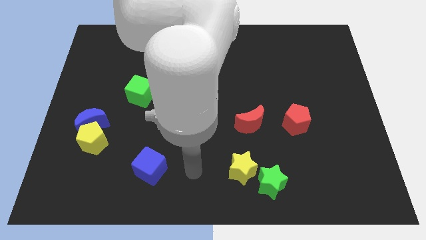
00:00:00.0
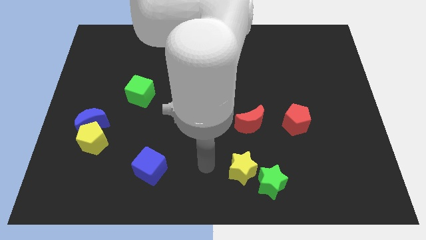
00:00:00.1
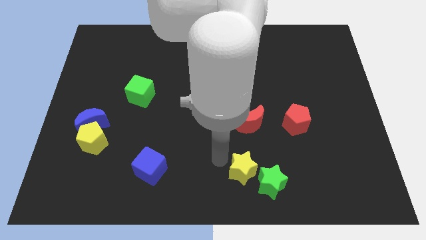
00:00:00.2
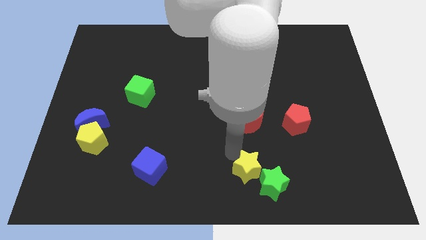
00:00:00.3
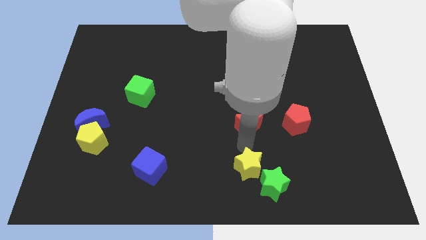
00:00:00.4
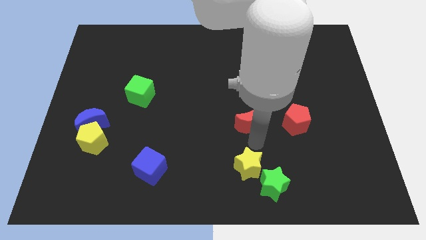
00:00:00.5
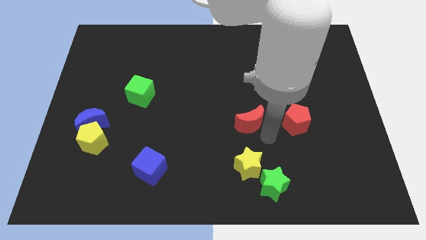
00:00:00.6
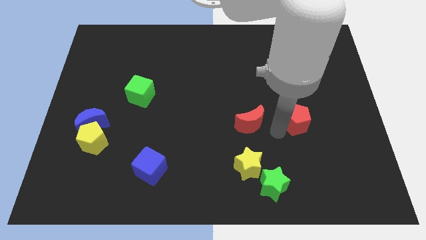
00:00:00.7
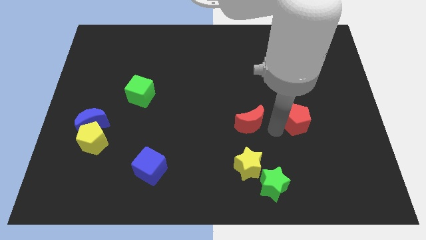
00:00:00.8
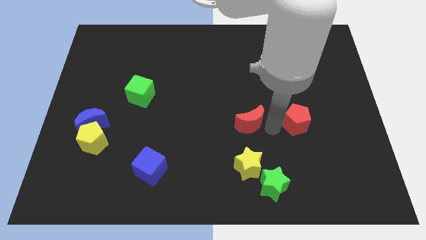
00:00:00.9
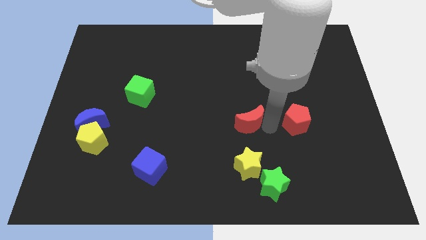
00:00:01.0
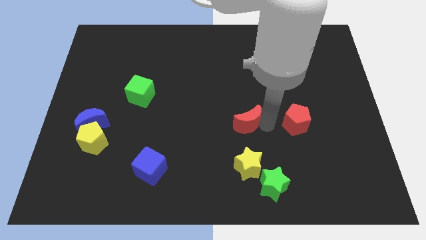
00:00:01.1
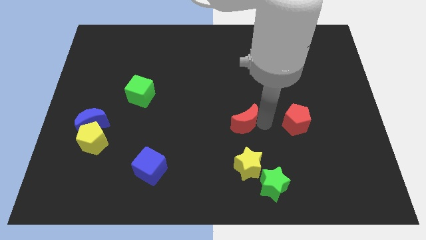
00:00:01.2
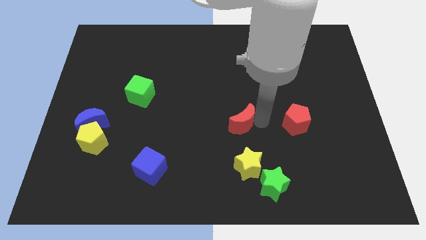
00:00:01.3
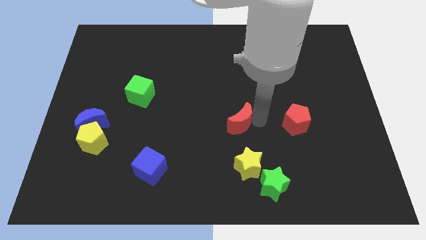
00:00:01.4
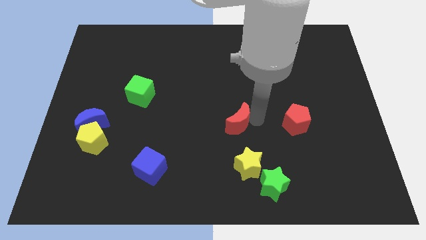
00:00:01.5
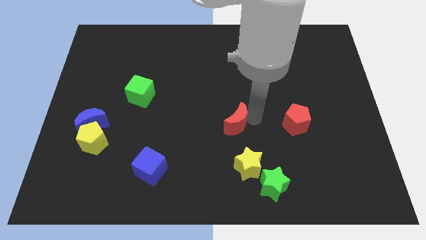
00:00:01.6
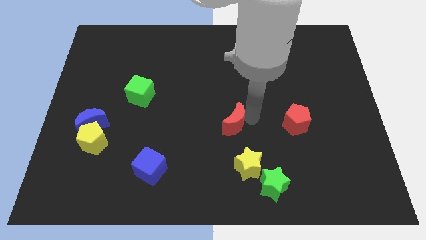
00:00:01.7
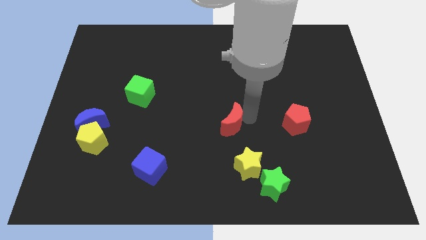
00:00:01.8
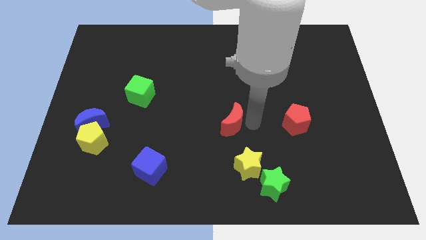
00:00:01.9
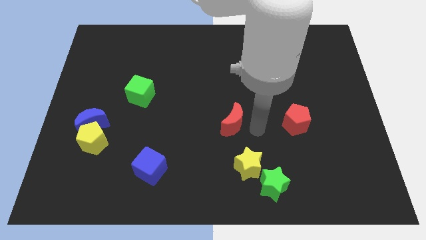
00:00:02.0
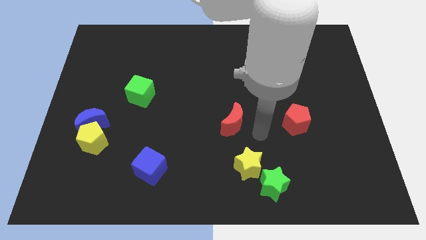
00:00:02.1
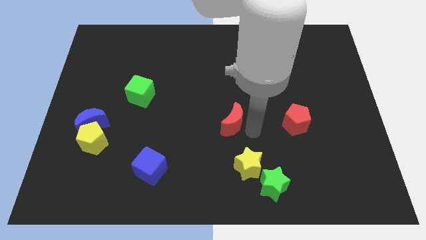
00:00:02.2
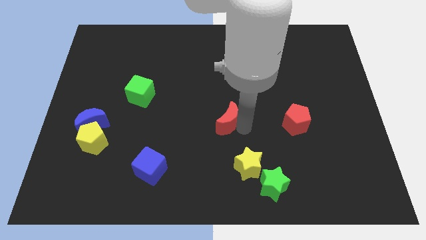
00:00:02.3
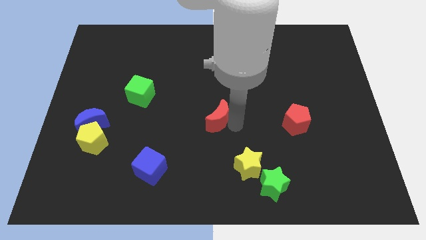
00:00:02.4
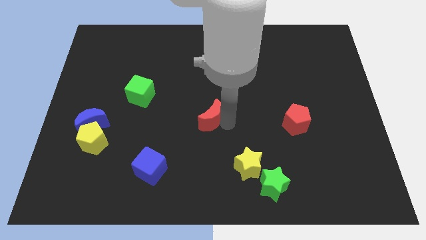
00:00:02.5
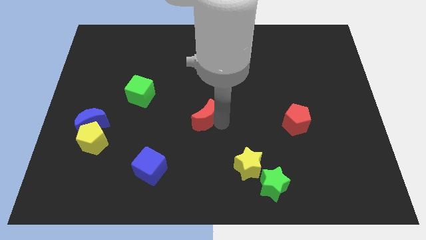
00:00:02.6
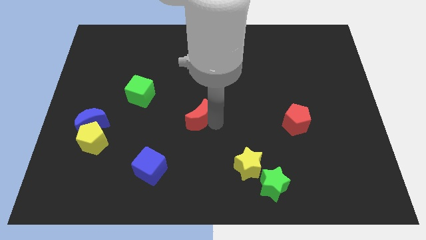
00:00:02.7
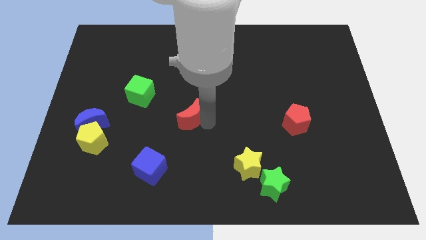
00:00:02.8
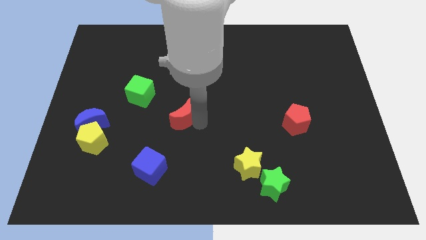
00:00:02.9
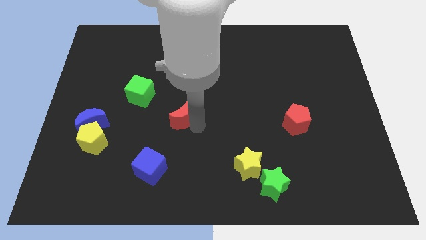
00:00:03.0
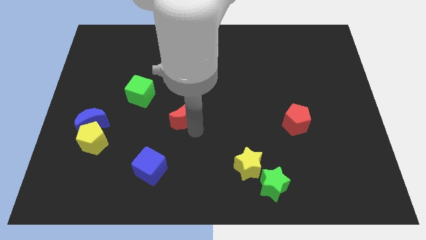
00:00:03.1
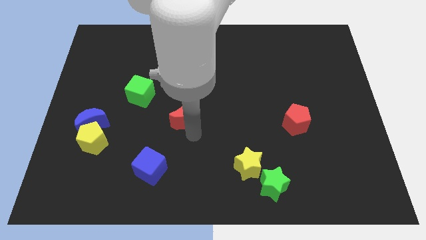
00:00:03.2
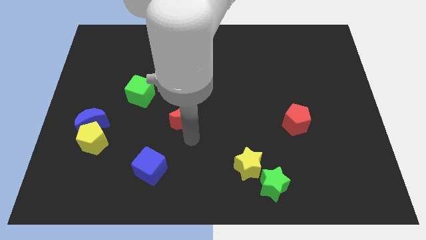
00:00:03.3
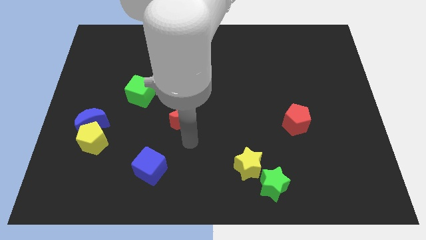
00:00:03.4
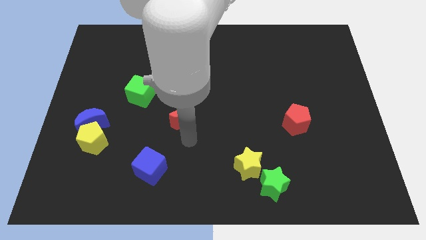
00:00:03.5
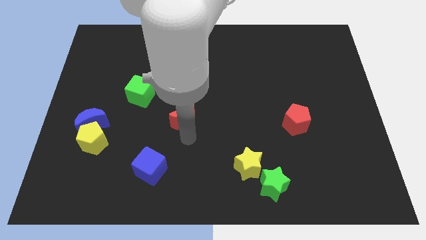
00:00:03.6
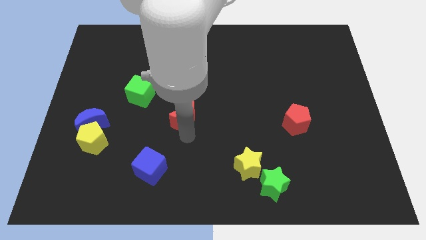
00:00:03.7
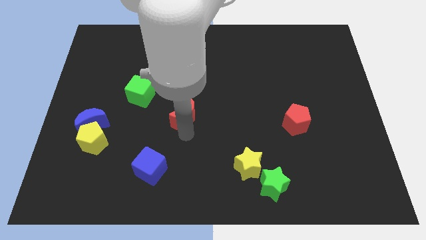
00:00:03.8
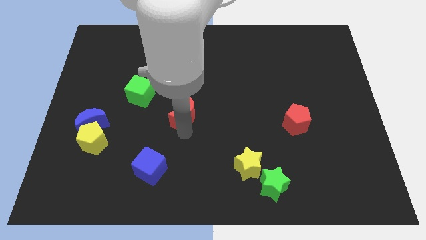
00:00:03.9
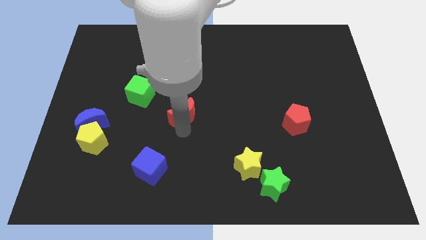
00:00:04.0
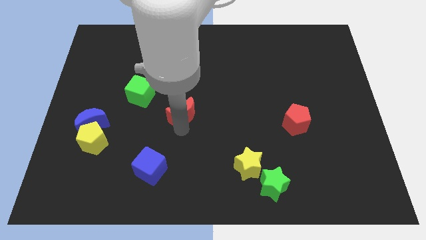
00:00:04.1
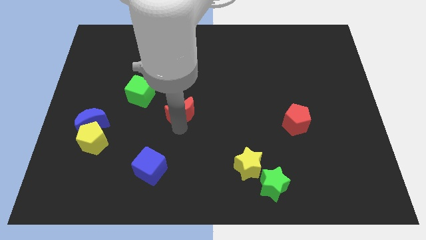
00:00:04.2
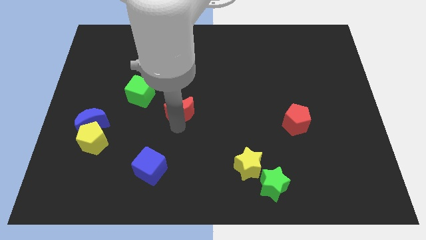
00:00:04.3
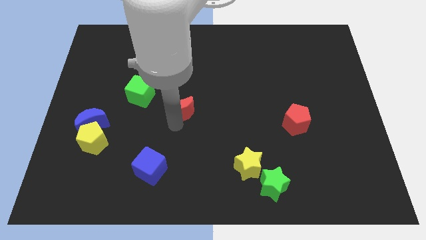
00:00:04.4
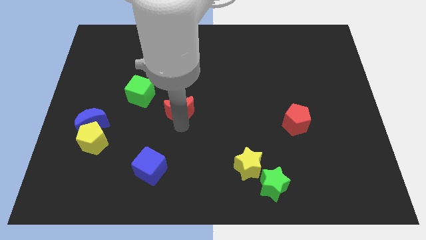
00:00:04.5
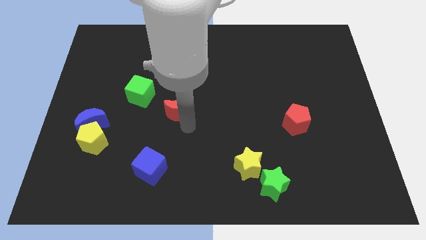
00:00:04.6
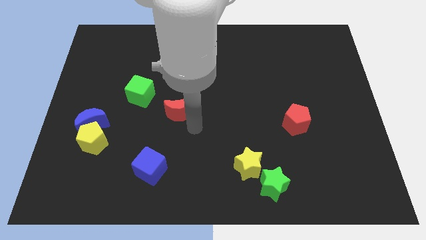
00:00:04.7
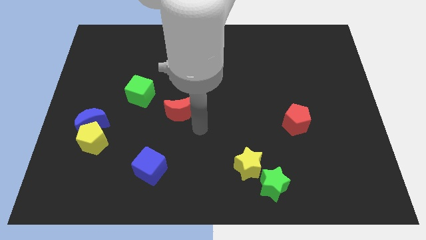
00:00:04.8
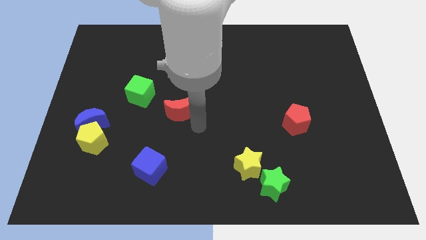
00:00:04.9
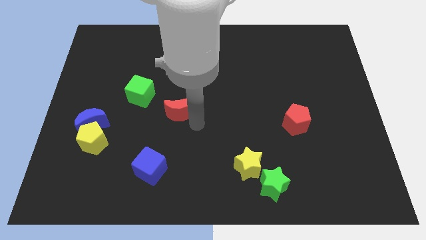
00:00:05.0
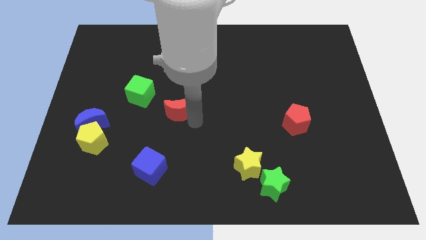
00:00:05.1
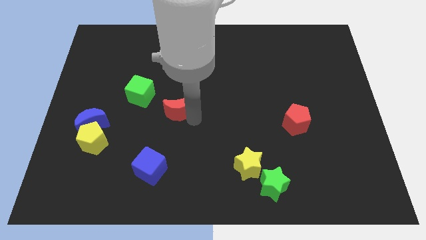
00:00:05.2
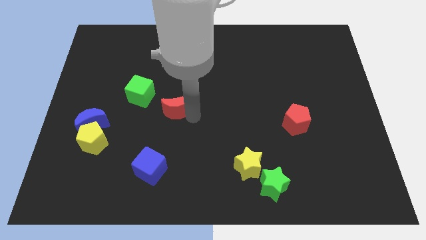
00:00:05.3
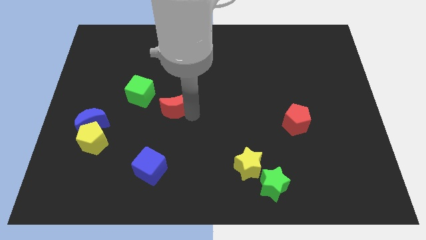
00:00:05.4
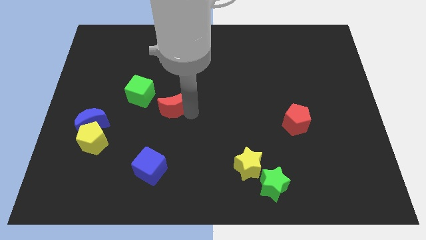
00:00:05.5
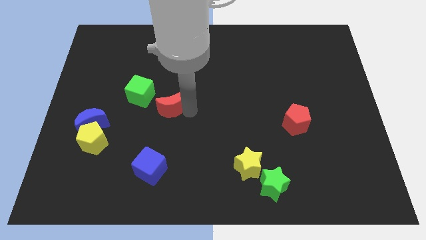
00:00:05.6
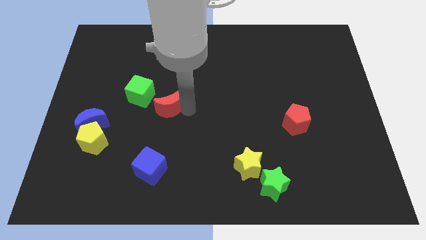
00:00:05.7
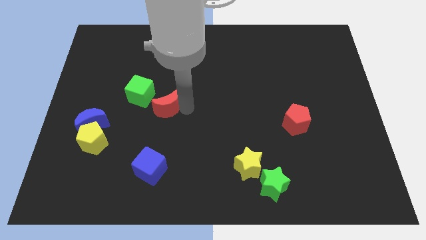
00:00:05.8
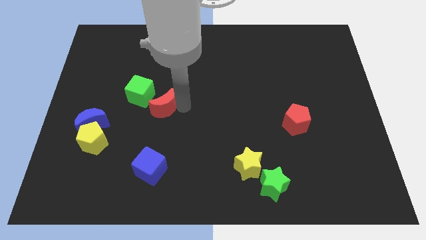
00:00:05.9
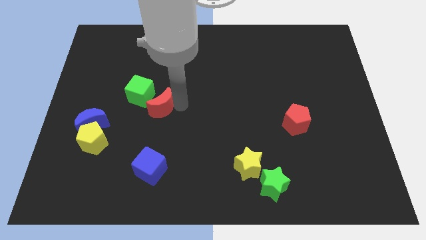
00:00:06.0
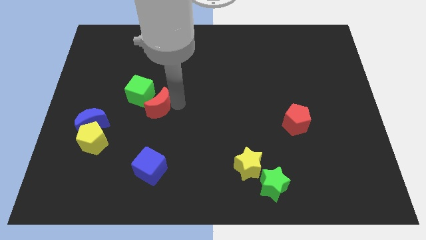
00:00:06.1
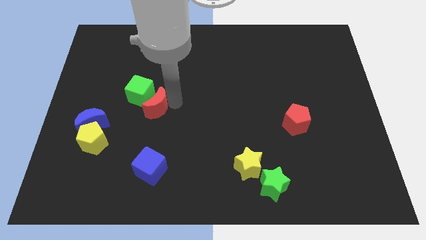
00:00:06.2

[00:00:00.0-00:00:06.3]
move the red moon towards the green cube

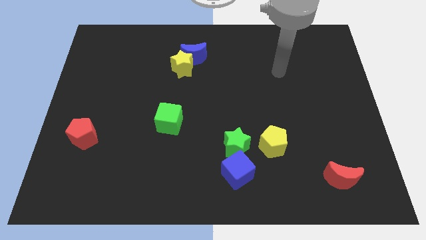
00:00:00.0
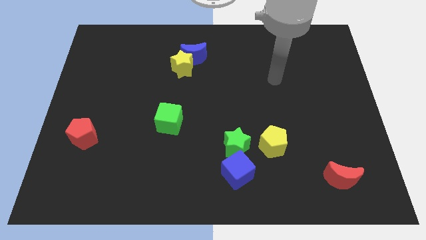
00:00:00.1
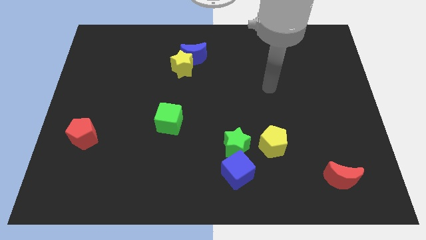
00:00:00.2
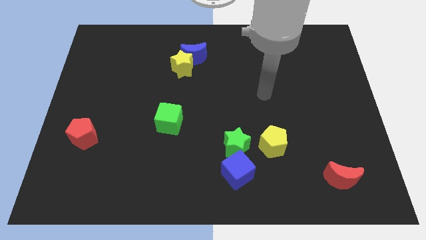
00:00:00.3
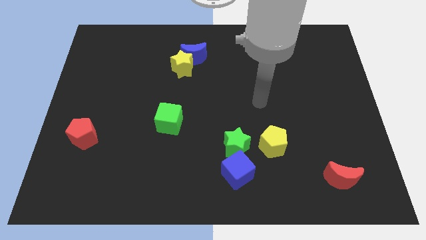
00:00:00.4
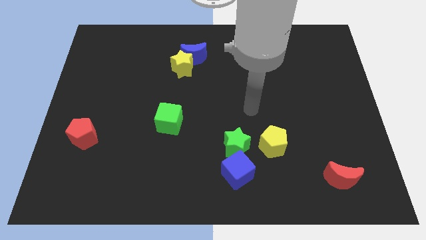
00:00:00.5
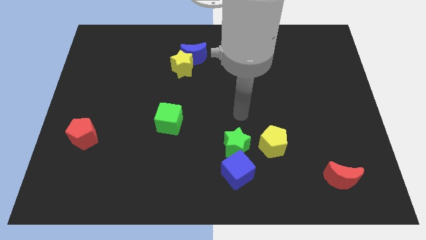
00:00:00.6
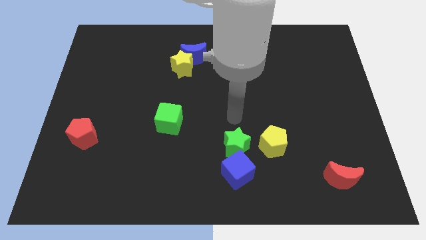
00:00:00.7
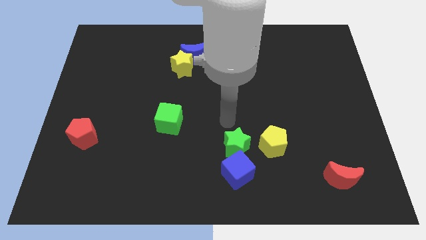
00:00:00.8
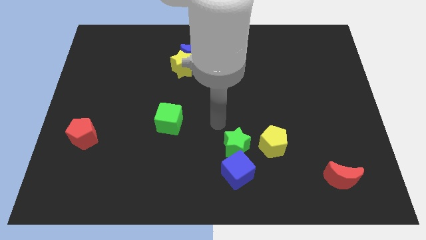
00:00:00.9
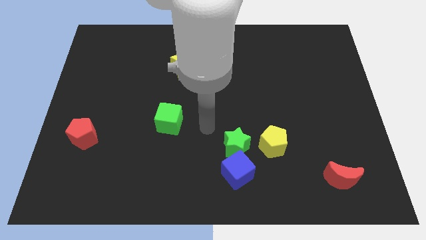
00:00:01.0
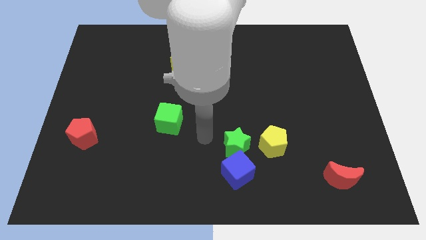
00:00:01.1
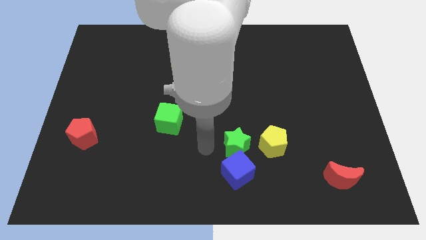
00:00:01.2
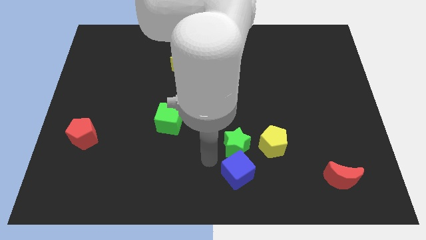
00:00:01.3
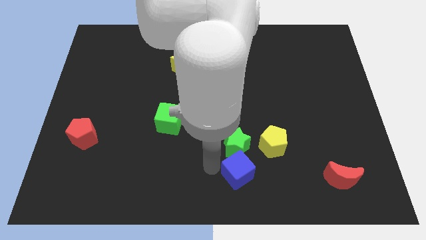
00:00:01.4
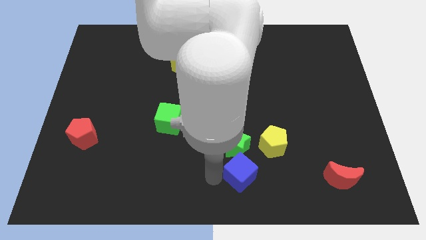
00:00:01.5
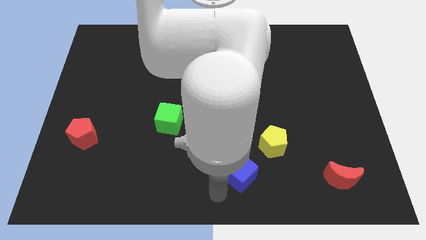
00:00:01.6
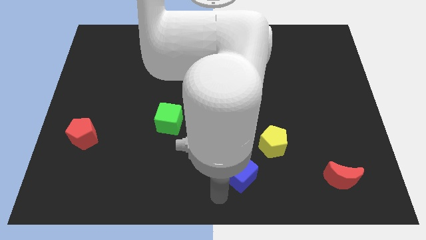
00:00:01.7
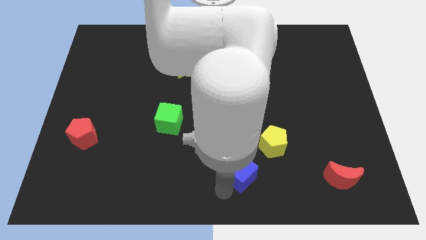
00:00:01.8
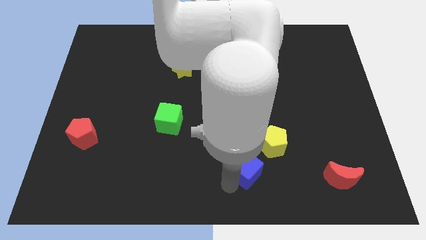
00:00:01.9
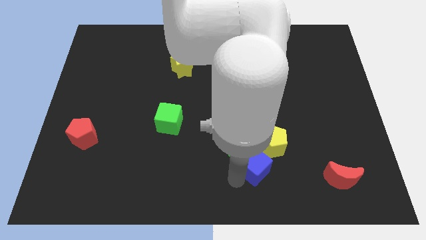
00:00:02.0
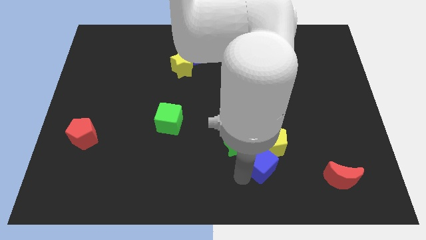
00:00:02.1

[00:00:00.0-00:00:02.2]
move the blue cube next to the yellow pentagon
